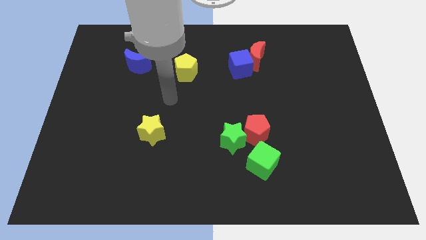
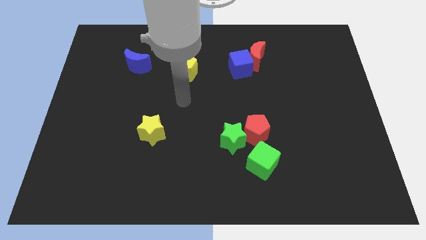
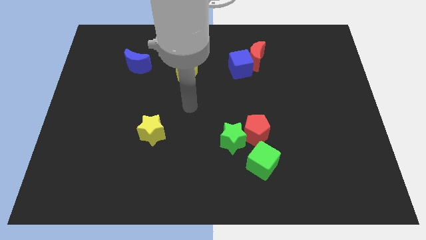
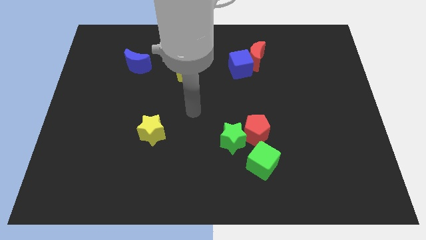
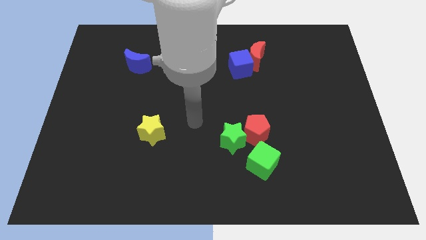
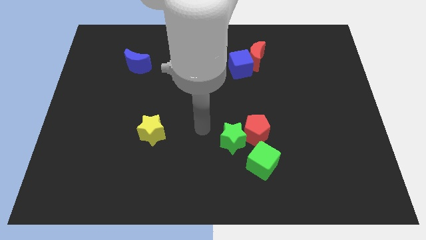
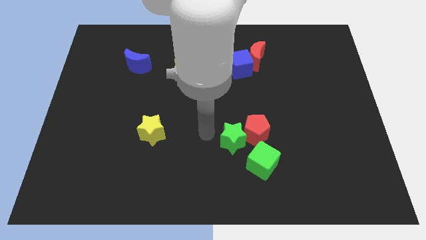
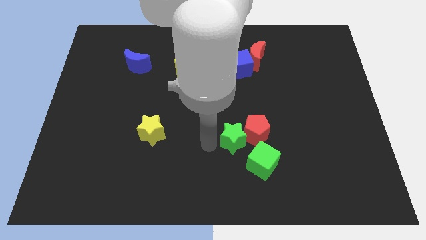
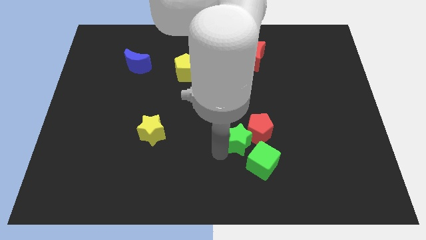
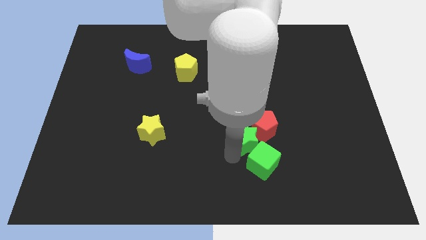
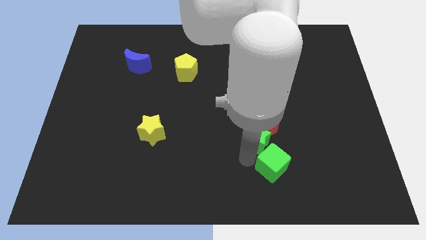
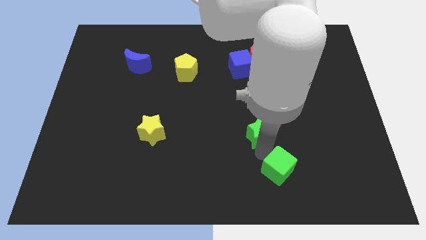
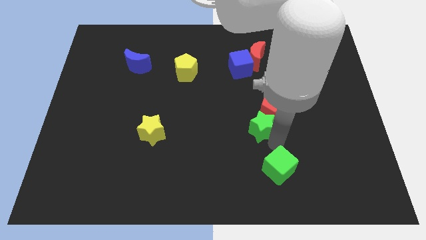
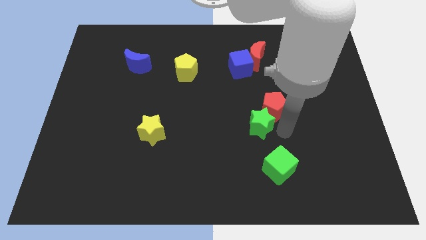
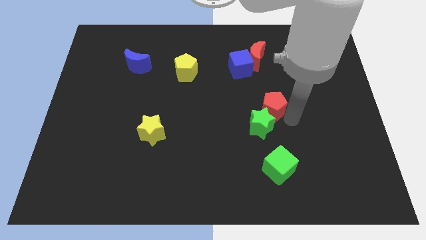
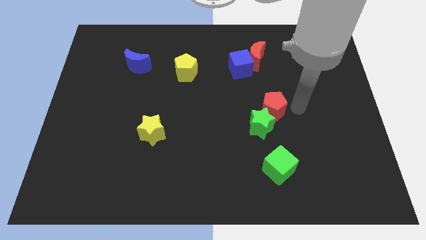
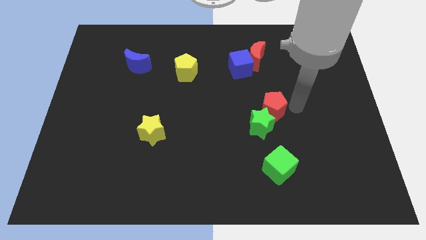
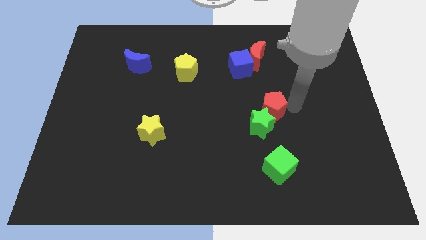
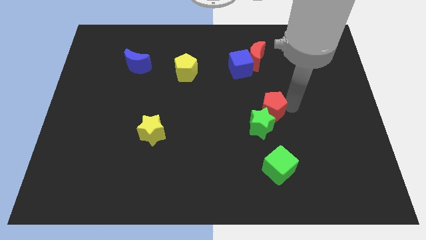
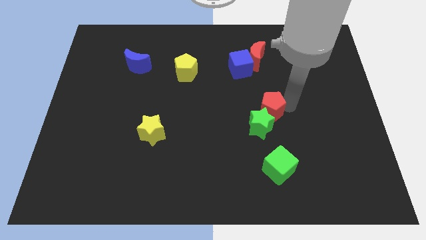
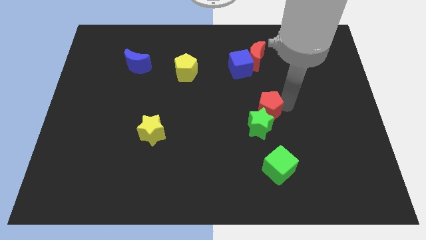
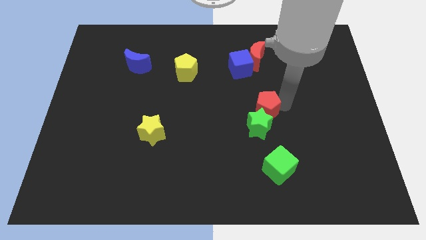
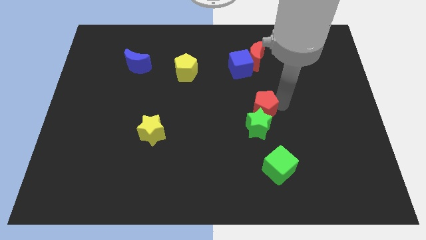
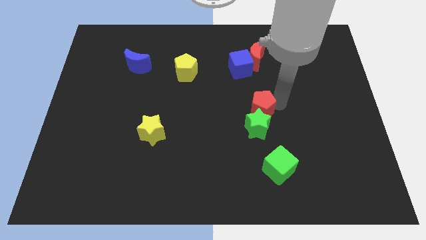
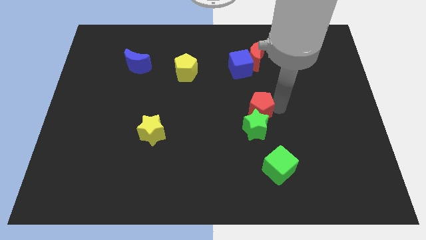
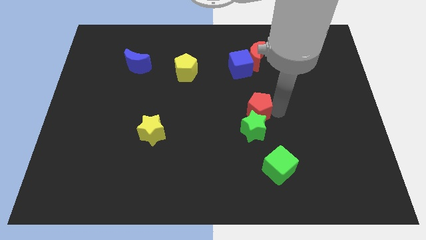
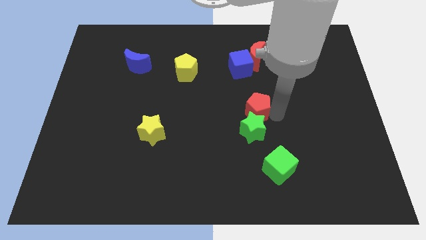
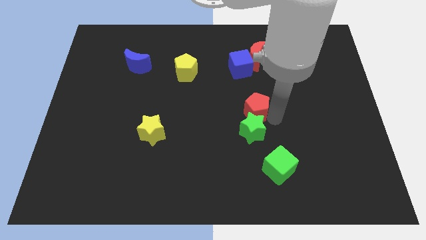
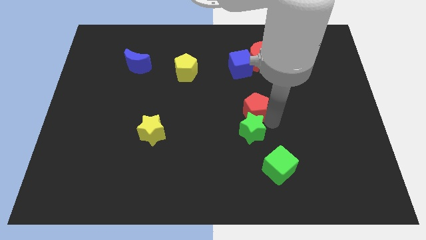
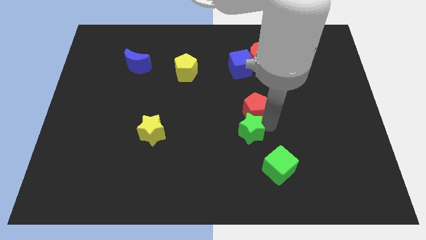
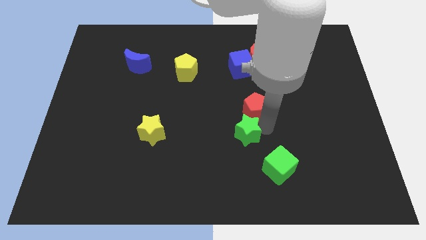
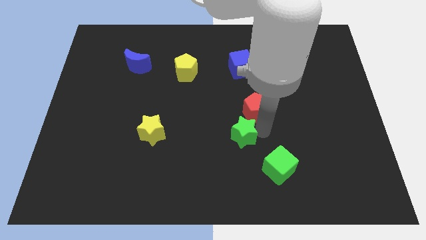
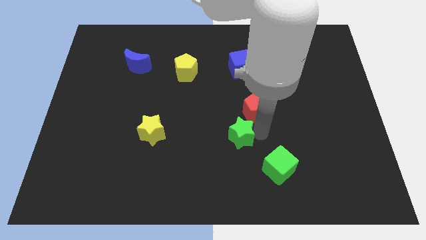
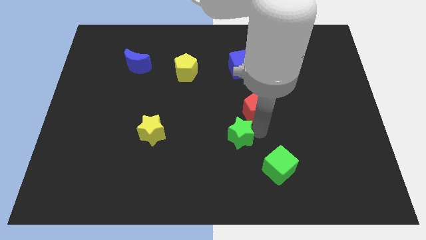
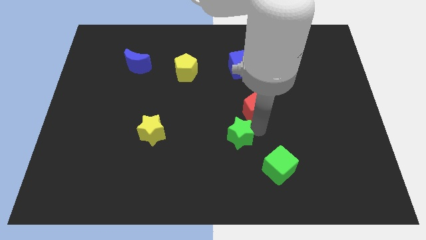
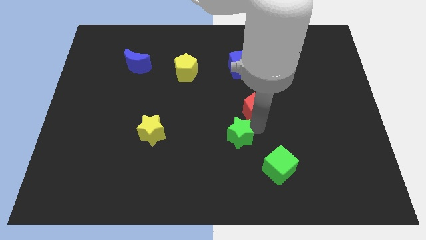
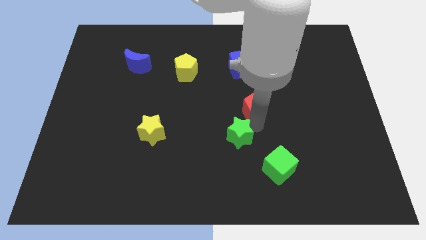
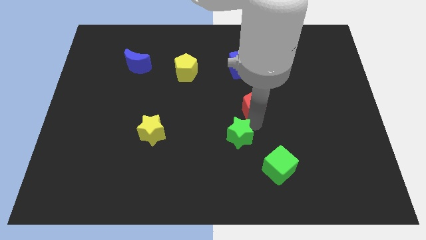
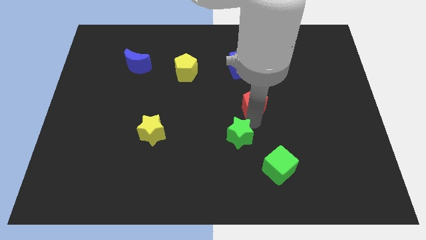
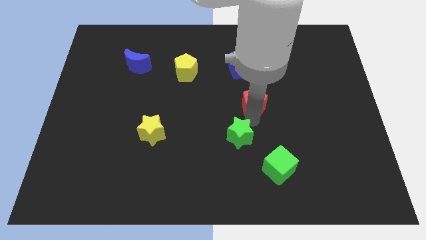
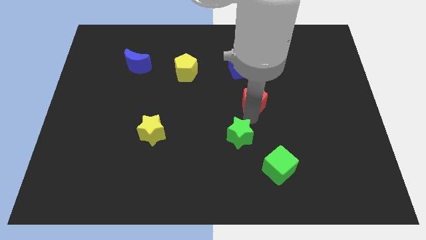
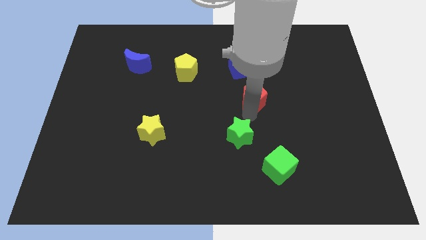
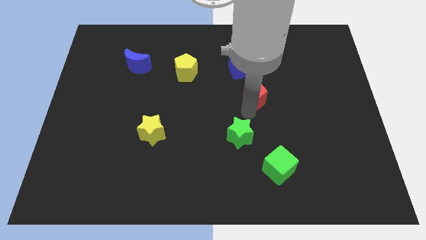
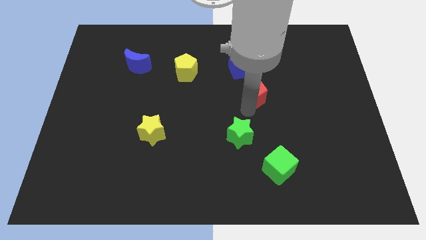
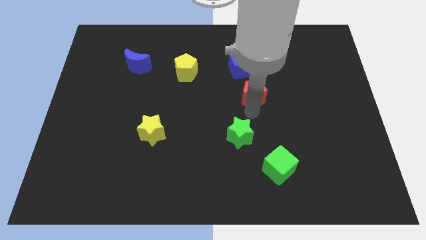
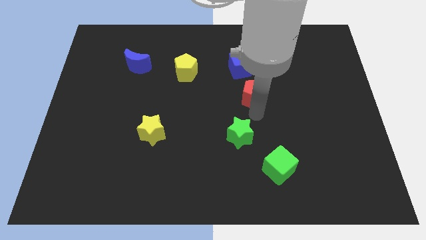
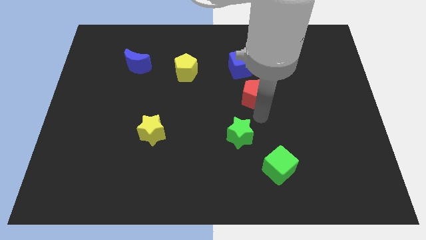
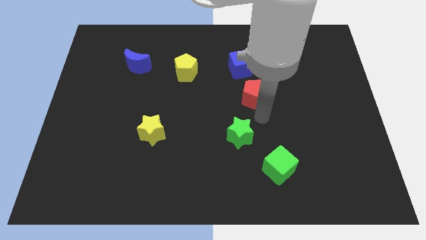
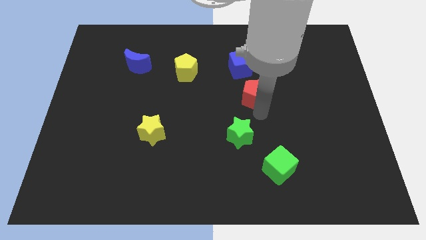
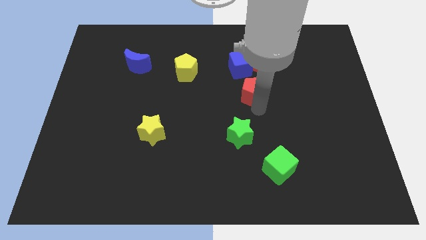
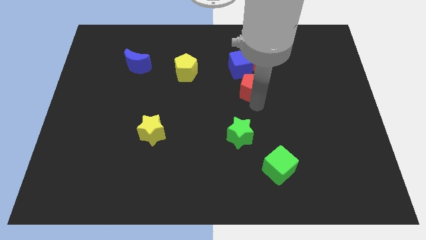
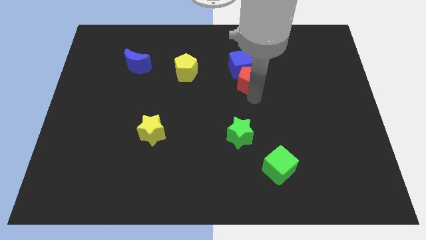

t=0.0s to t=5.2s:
put the red pentagon to the blue cube

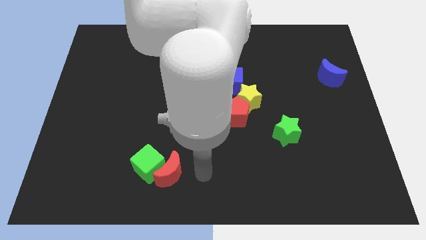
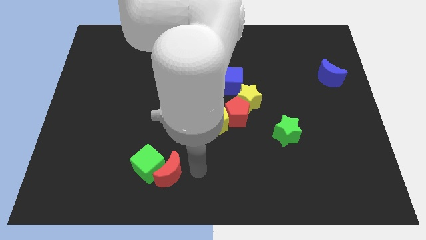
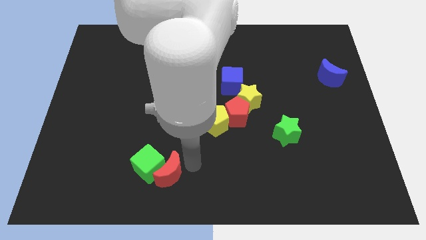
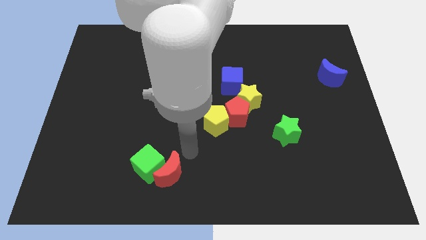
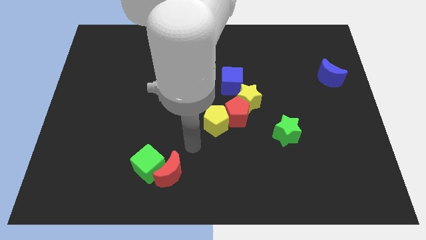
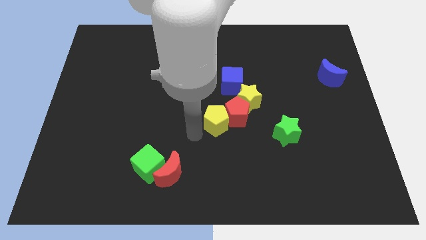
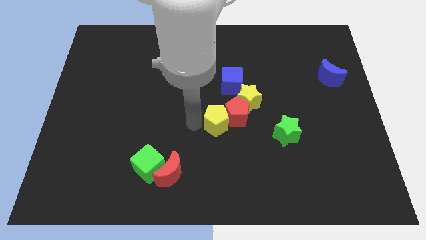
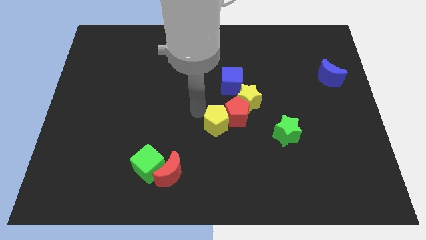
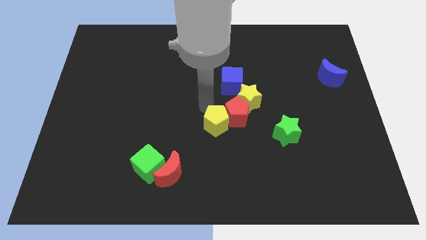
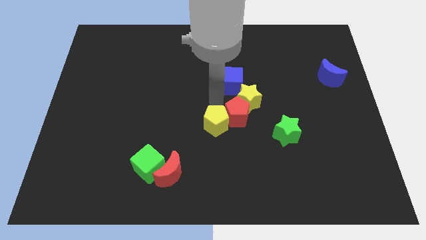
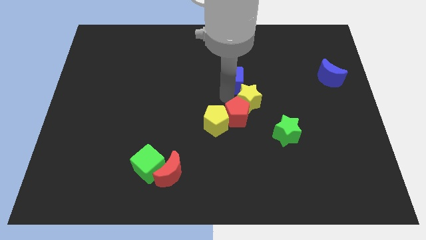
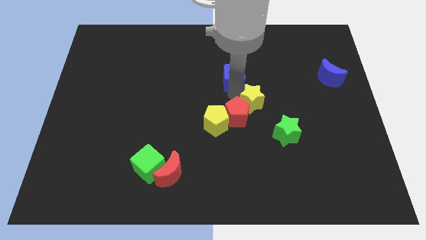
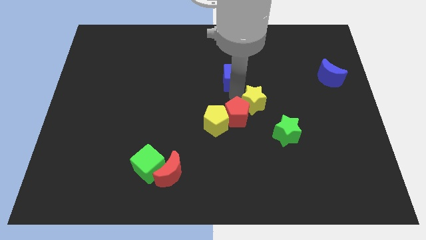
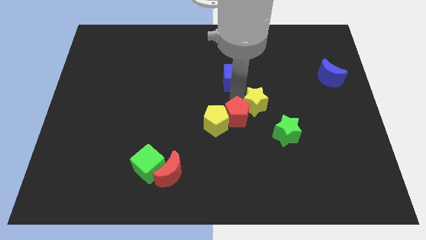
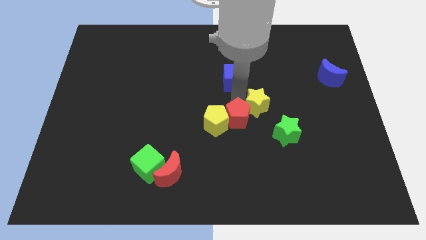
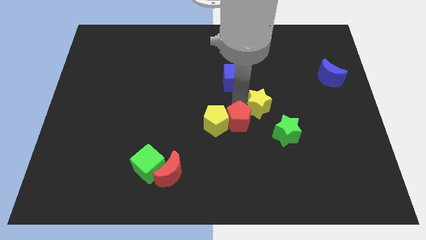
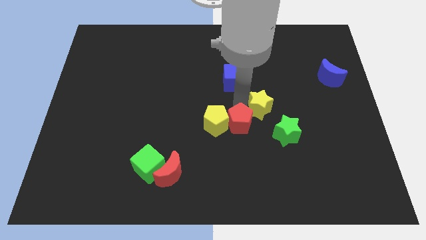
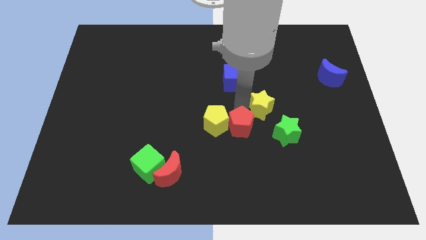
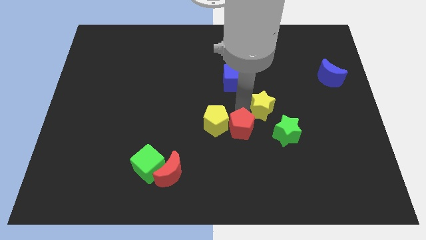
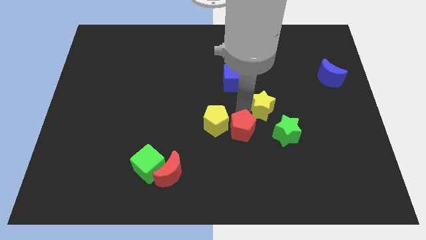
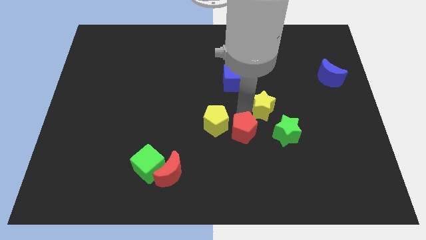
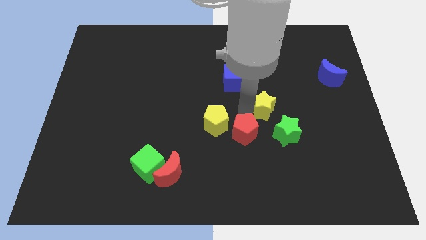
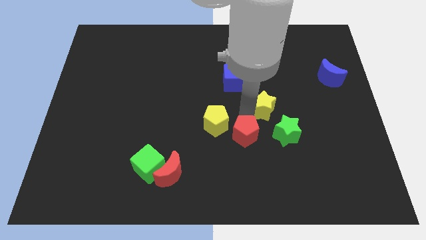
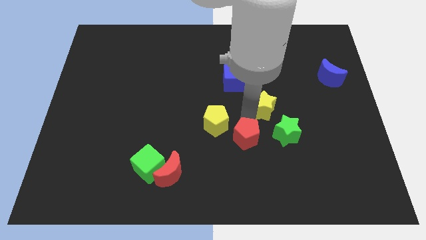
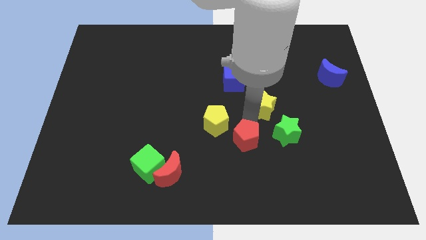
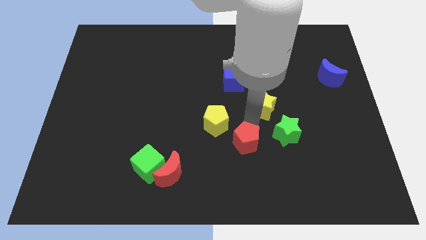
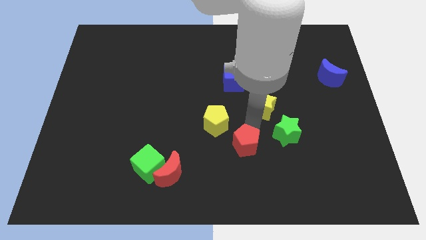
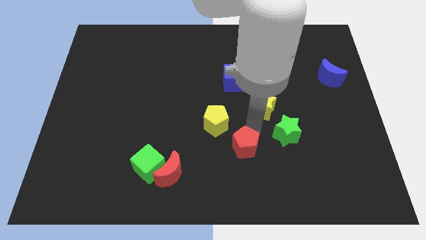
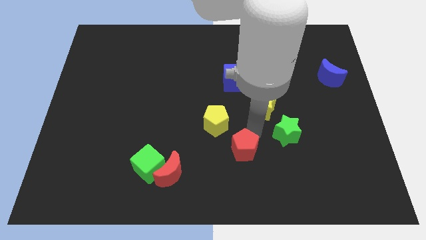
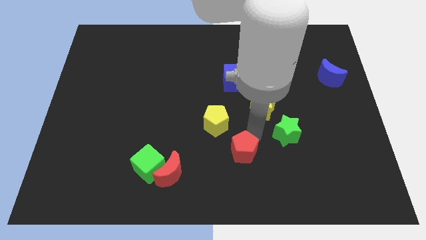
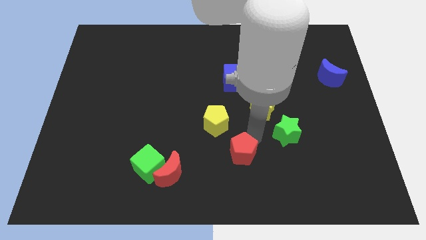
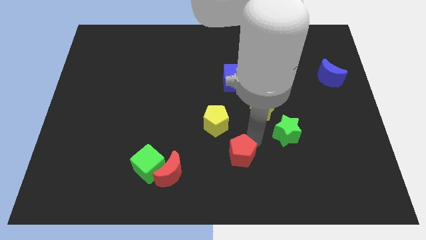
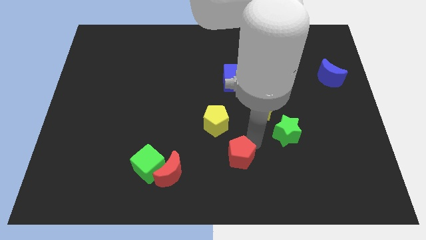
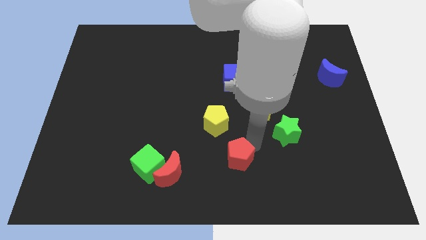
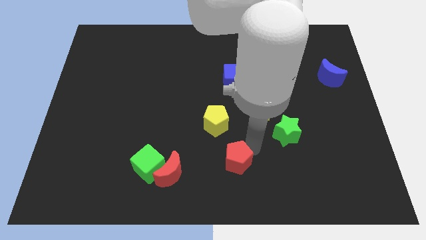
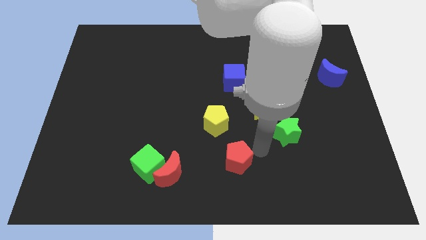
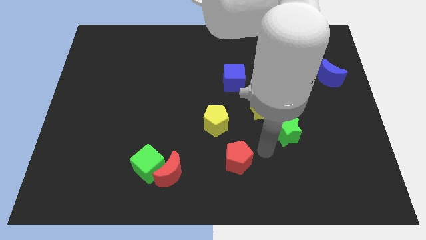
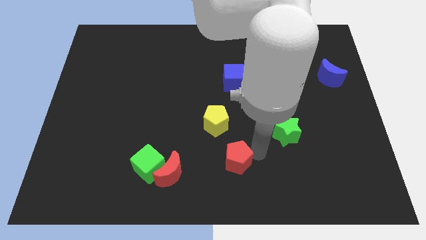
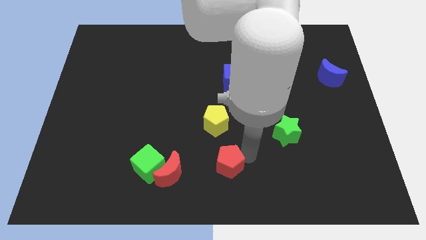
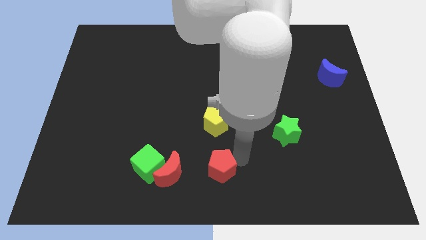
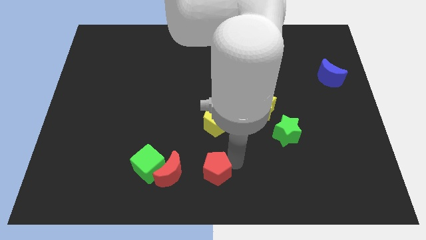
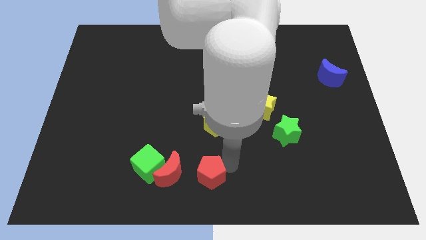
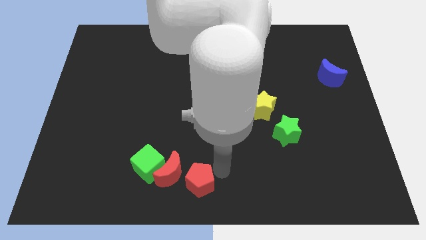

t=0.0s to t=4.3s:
put the red pentagon towards the red moon
